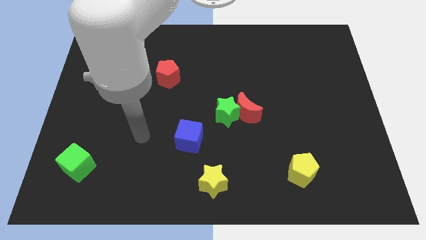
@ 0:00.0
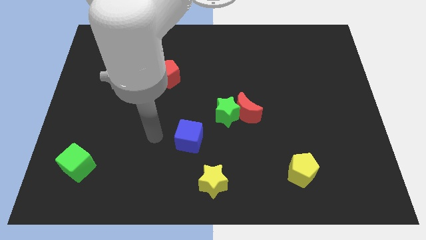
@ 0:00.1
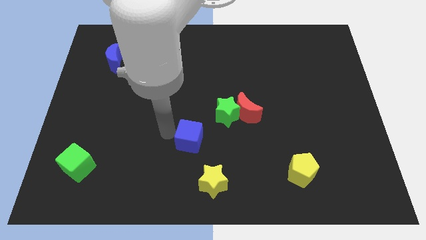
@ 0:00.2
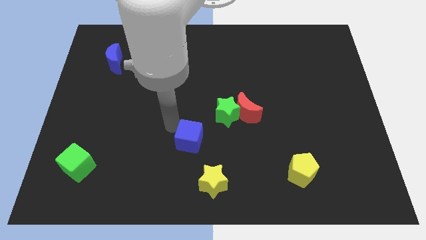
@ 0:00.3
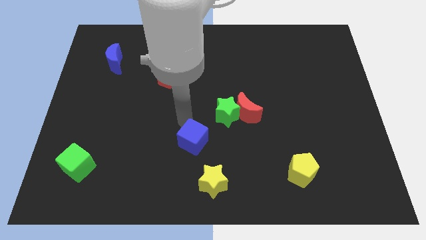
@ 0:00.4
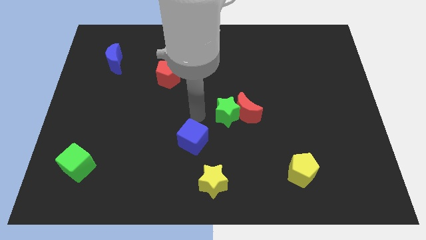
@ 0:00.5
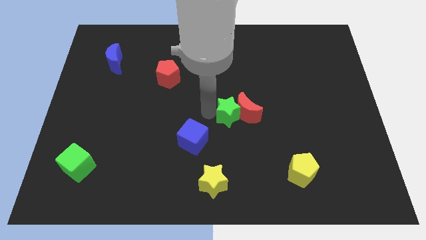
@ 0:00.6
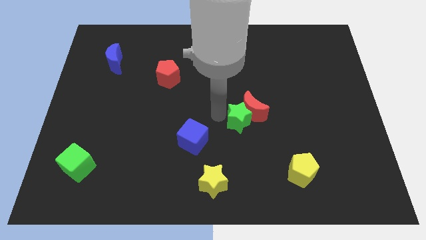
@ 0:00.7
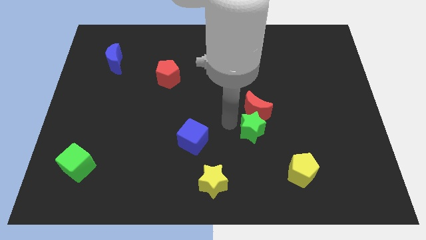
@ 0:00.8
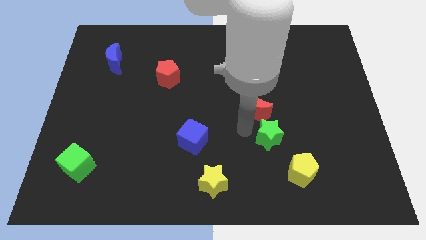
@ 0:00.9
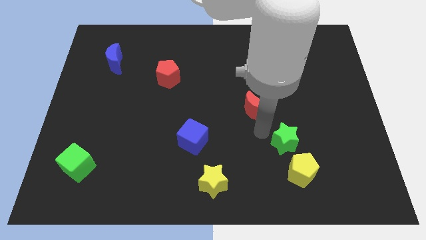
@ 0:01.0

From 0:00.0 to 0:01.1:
pull the red moon apart from the green star

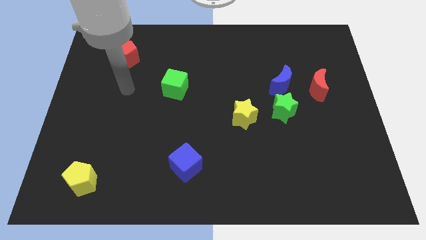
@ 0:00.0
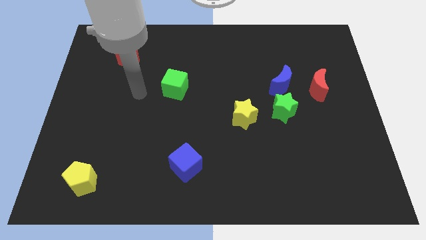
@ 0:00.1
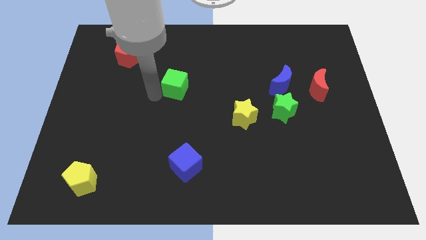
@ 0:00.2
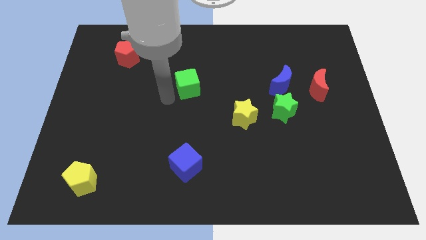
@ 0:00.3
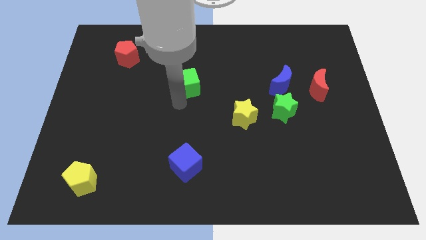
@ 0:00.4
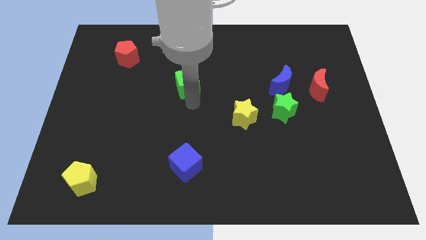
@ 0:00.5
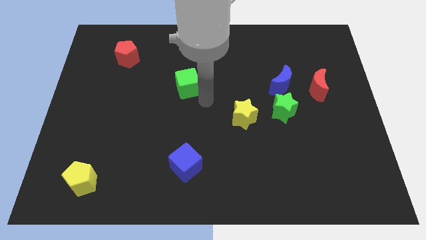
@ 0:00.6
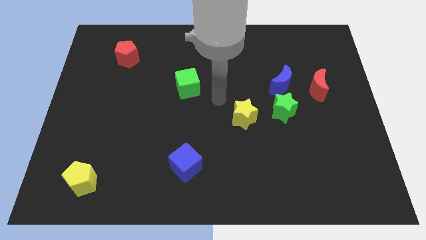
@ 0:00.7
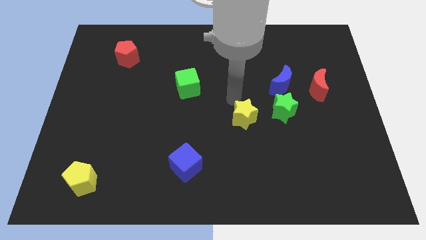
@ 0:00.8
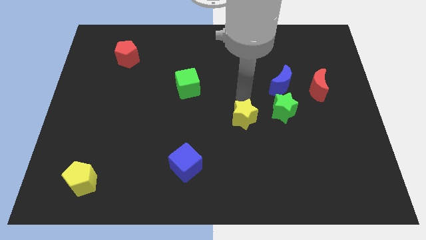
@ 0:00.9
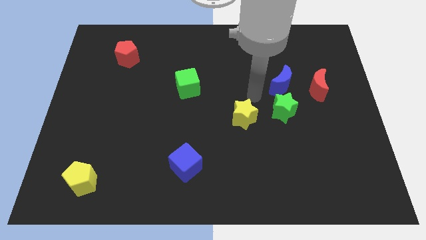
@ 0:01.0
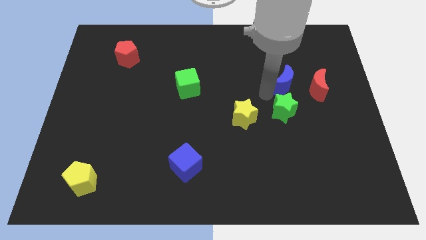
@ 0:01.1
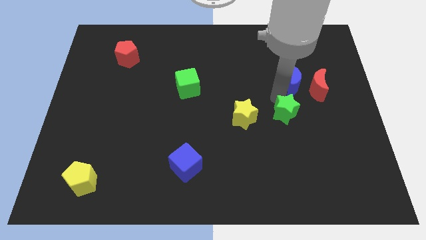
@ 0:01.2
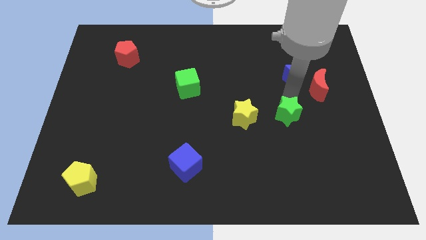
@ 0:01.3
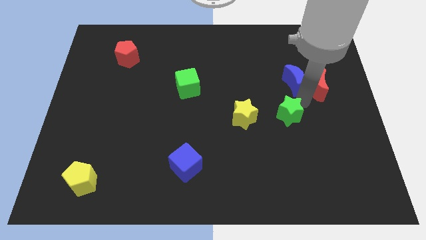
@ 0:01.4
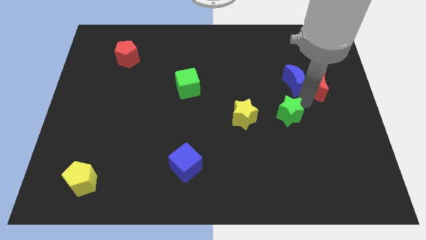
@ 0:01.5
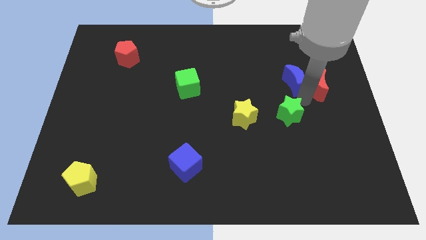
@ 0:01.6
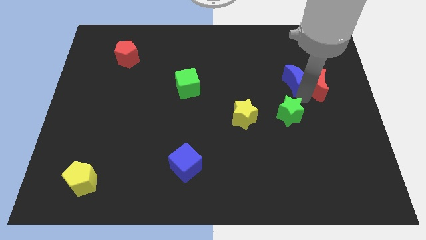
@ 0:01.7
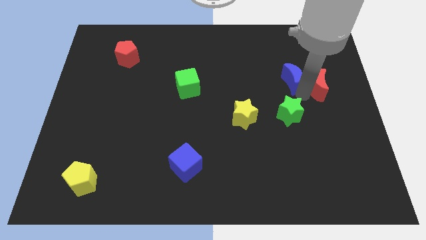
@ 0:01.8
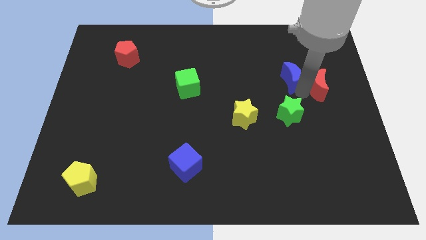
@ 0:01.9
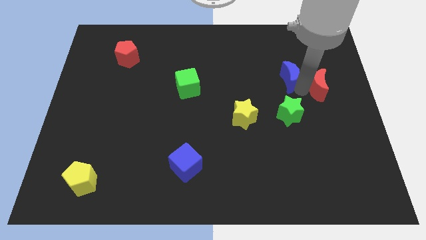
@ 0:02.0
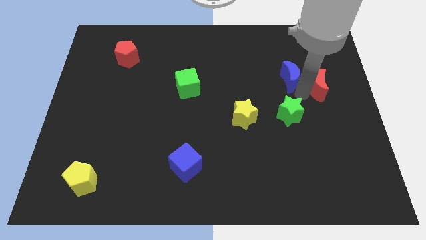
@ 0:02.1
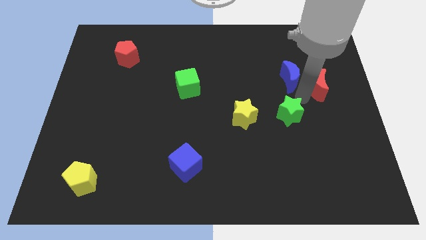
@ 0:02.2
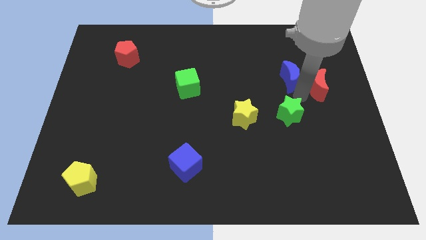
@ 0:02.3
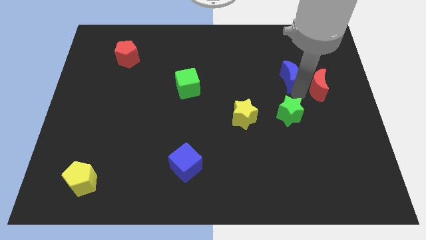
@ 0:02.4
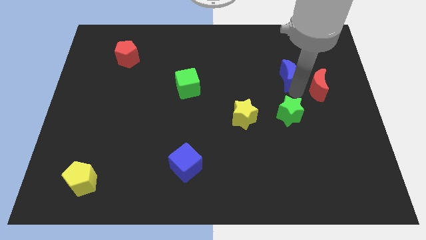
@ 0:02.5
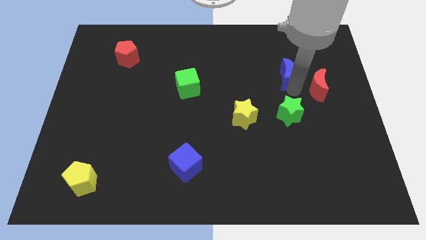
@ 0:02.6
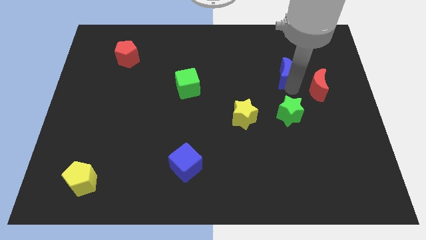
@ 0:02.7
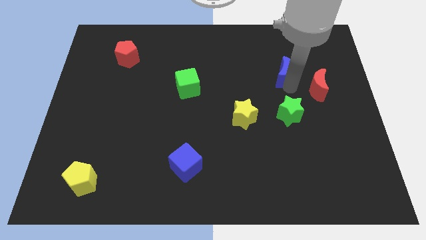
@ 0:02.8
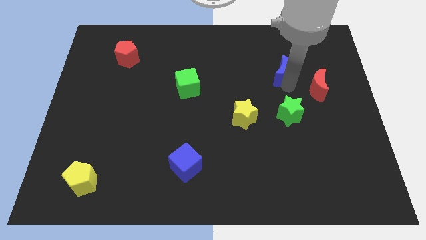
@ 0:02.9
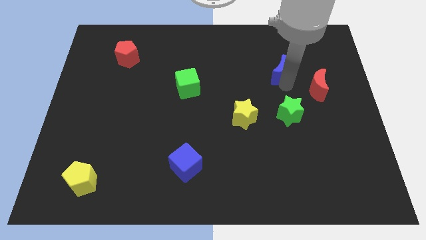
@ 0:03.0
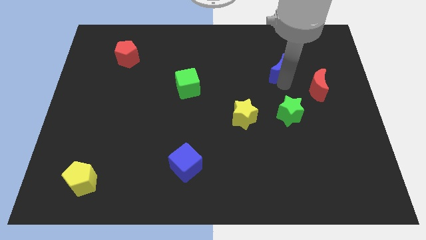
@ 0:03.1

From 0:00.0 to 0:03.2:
pull the blue moon apart from the green star and red moon

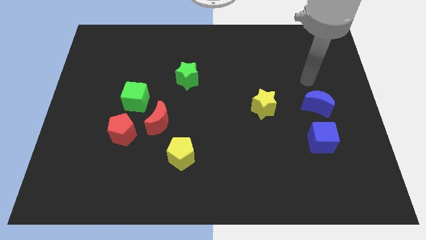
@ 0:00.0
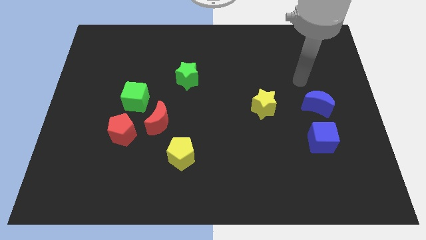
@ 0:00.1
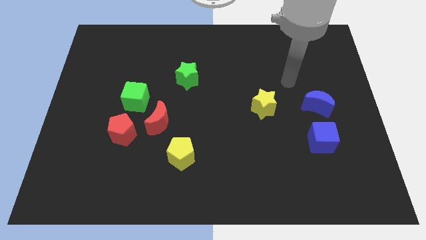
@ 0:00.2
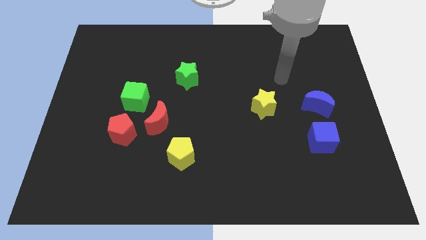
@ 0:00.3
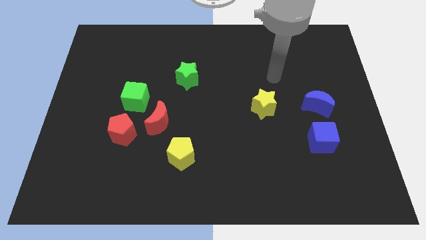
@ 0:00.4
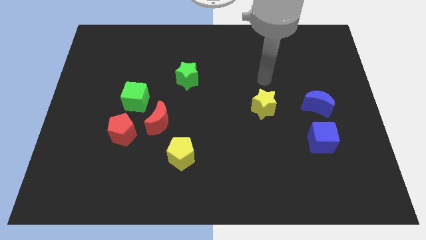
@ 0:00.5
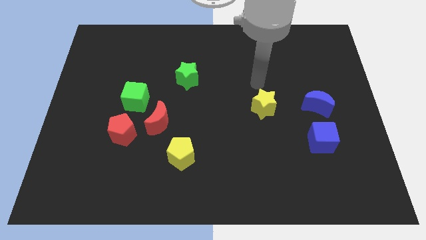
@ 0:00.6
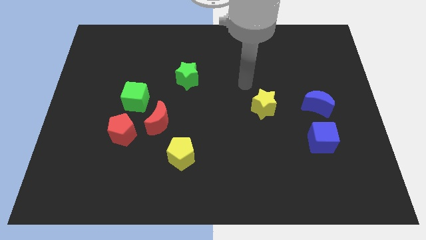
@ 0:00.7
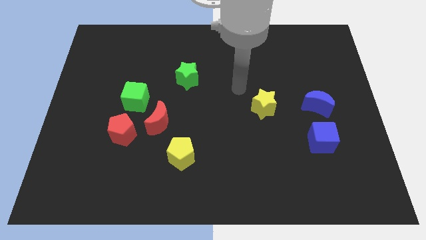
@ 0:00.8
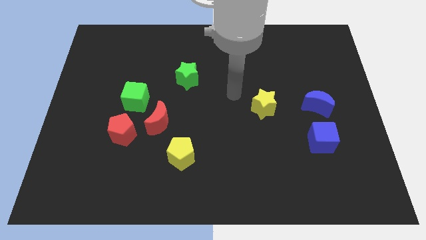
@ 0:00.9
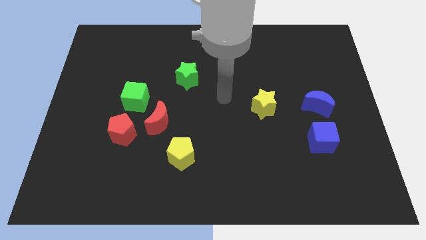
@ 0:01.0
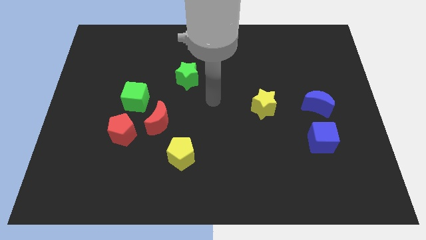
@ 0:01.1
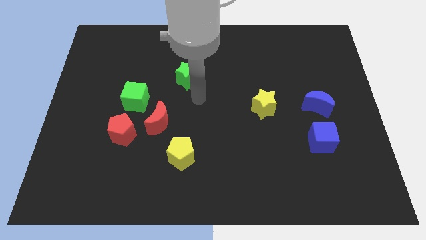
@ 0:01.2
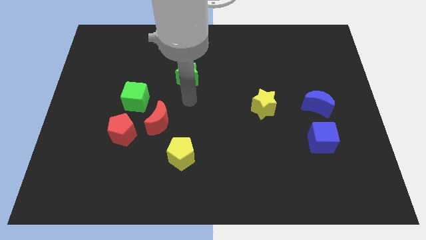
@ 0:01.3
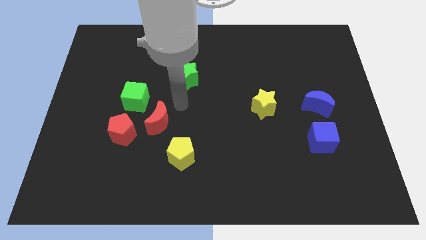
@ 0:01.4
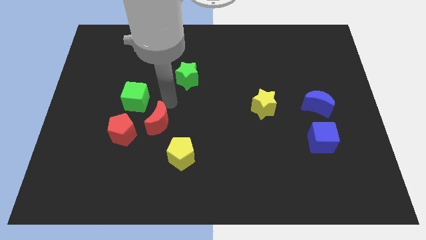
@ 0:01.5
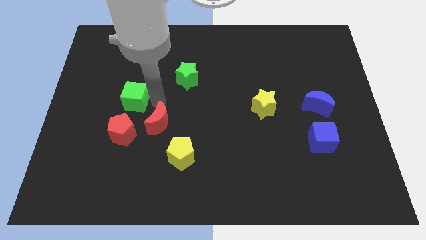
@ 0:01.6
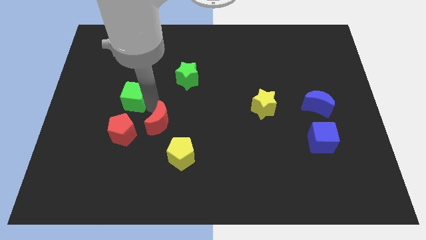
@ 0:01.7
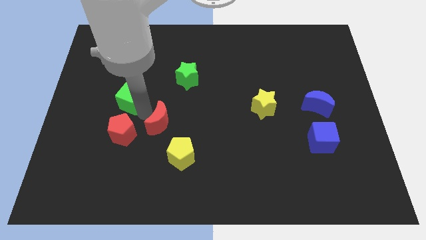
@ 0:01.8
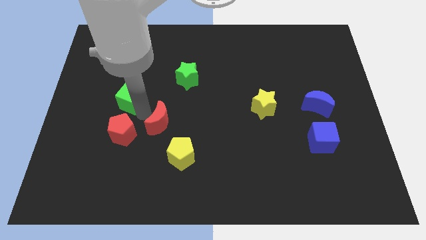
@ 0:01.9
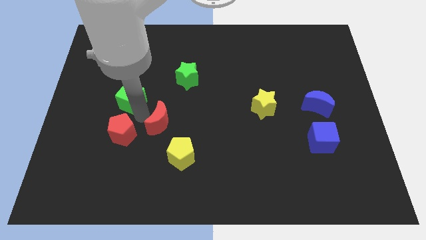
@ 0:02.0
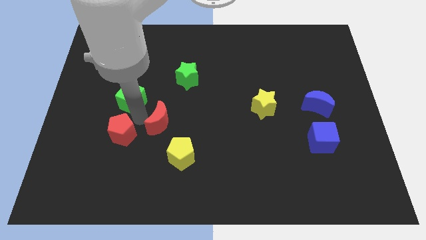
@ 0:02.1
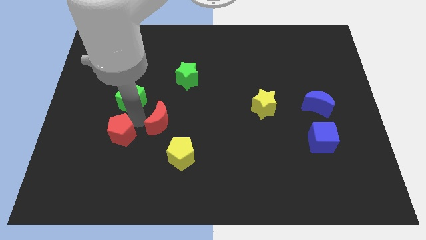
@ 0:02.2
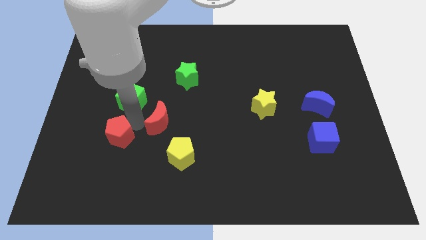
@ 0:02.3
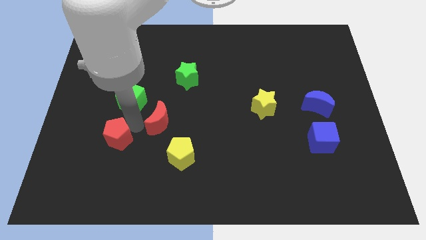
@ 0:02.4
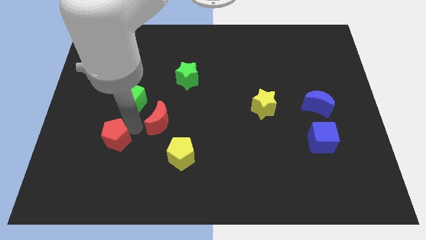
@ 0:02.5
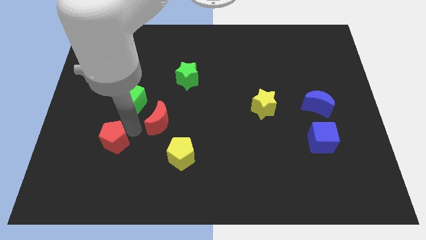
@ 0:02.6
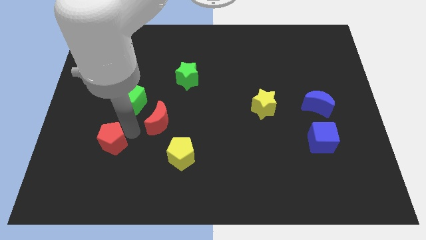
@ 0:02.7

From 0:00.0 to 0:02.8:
move the red pentagon away from the red moon and green cube

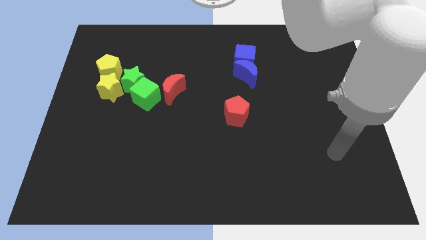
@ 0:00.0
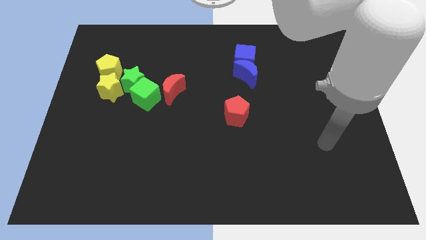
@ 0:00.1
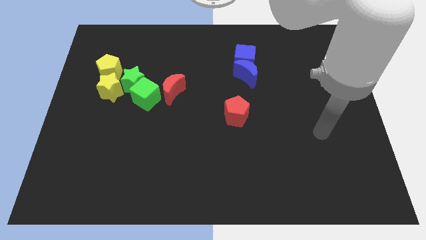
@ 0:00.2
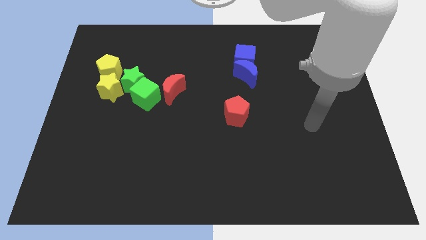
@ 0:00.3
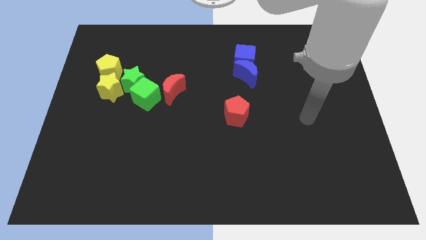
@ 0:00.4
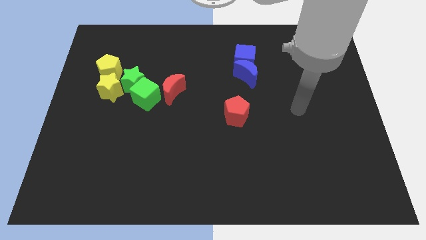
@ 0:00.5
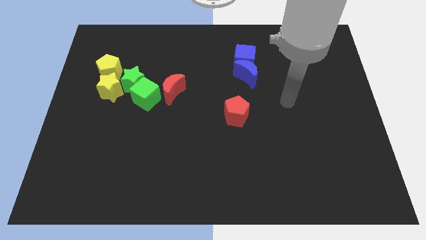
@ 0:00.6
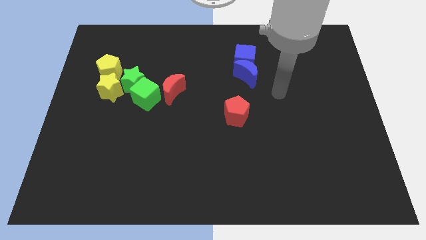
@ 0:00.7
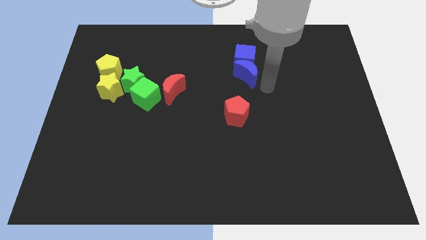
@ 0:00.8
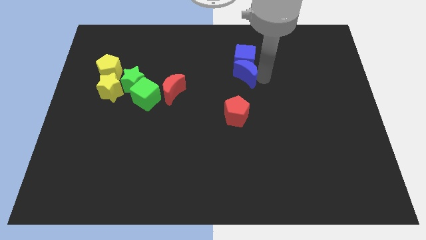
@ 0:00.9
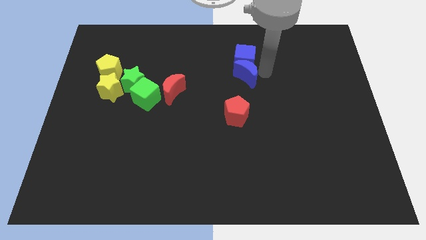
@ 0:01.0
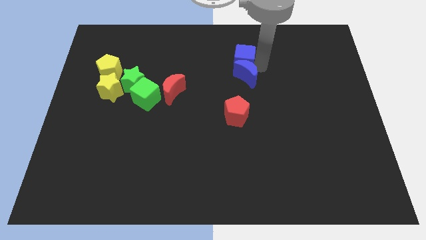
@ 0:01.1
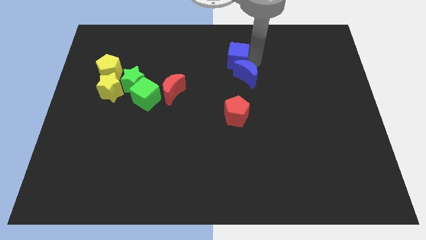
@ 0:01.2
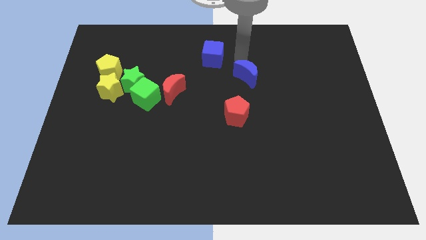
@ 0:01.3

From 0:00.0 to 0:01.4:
separate the blue moon from the blue cube

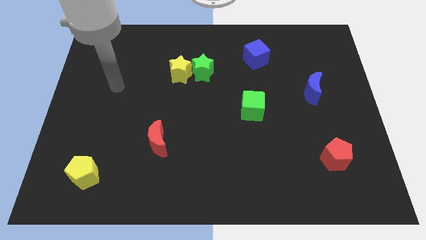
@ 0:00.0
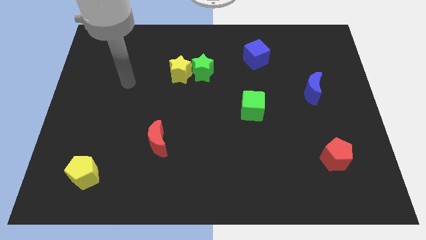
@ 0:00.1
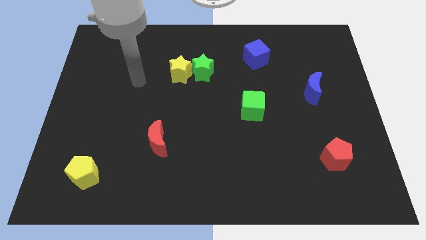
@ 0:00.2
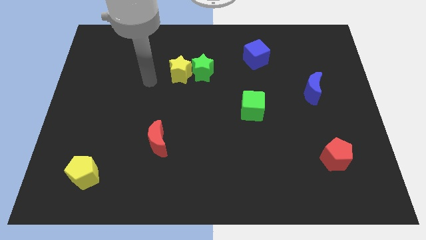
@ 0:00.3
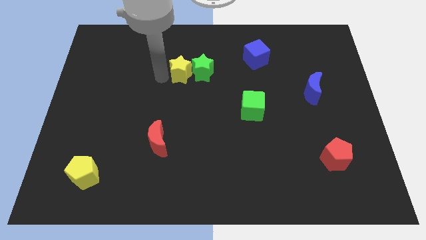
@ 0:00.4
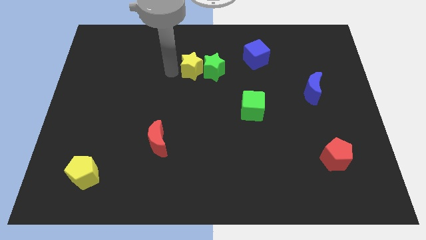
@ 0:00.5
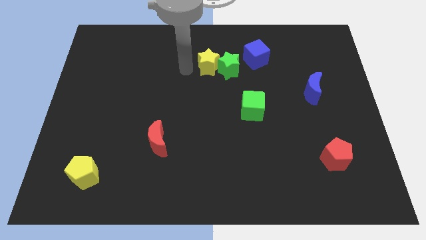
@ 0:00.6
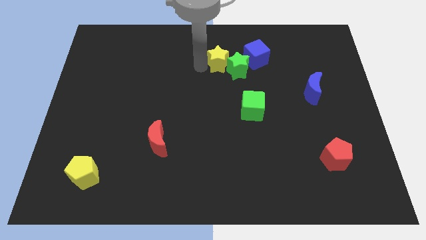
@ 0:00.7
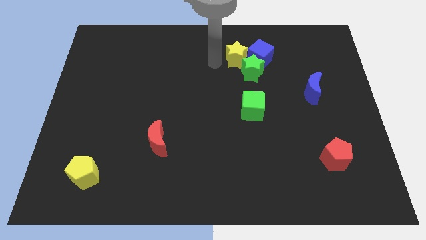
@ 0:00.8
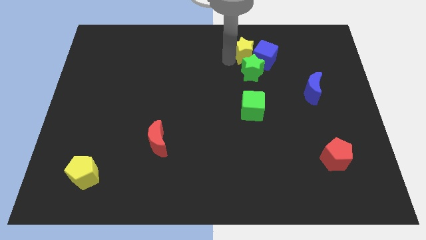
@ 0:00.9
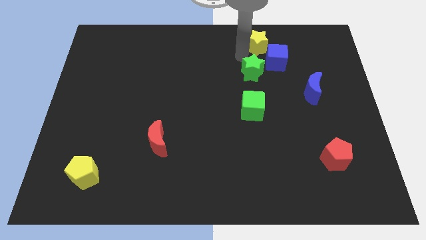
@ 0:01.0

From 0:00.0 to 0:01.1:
move the green star away from the yellow star
